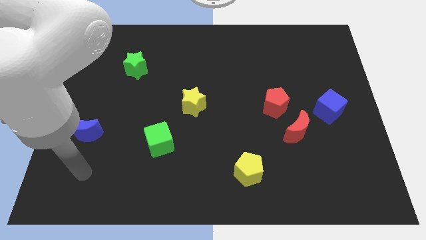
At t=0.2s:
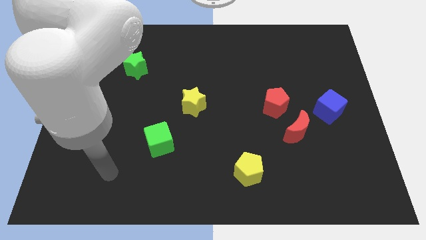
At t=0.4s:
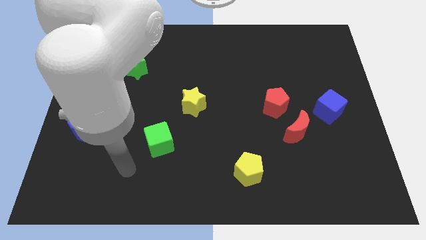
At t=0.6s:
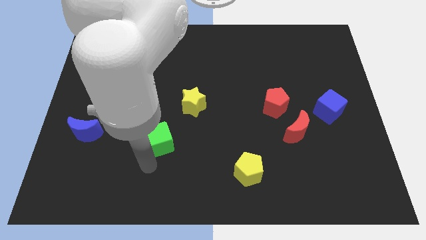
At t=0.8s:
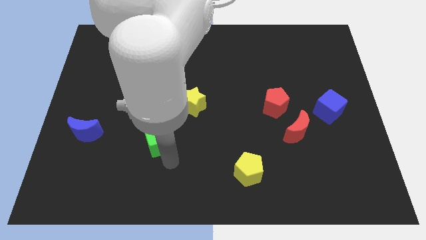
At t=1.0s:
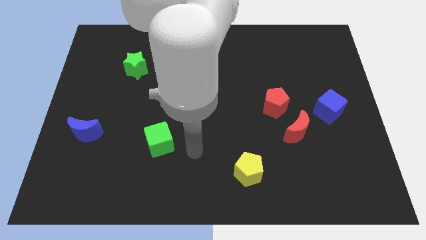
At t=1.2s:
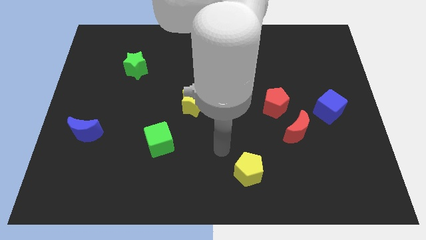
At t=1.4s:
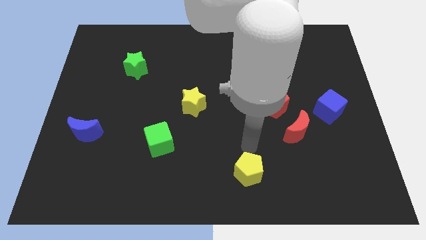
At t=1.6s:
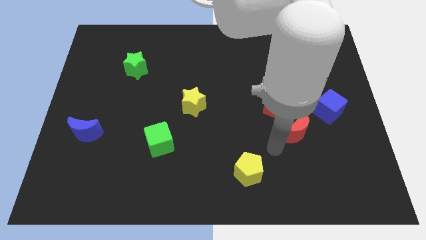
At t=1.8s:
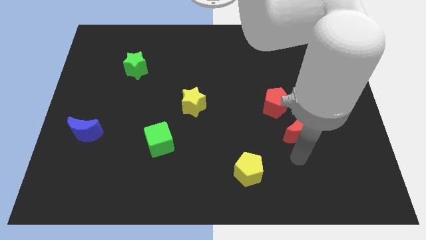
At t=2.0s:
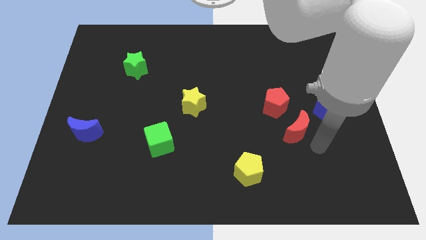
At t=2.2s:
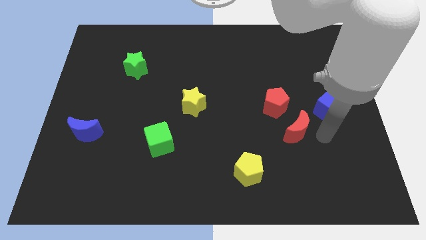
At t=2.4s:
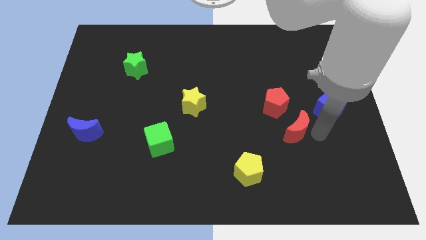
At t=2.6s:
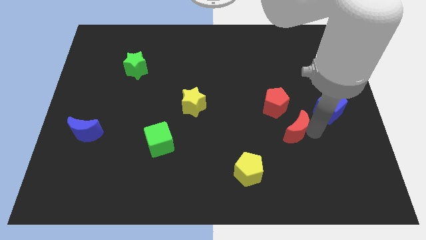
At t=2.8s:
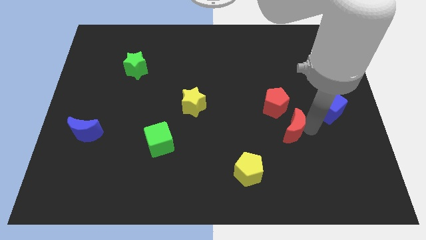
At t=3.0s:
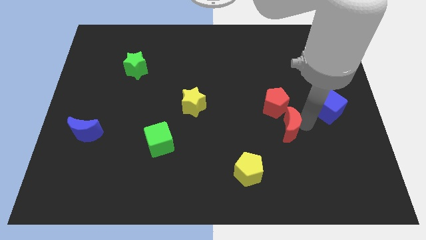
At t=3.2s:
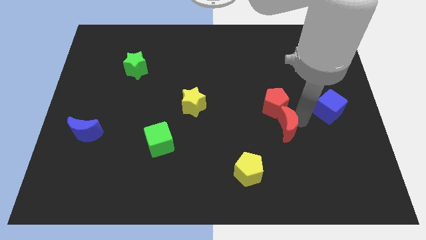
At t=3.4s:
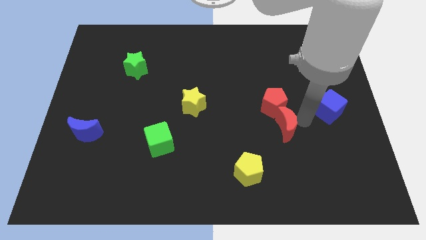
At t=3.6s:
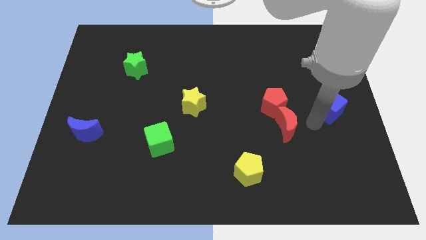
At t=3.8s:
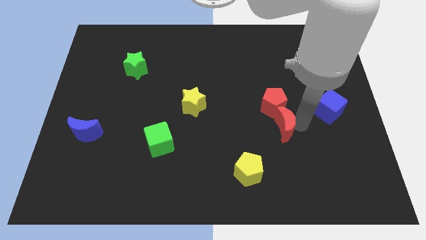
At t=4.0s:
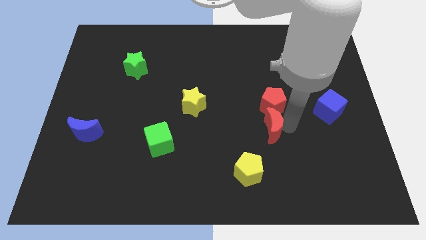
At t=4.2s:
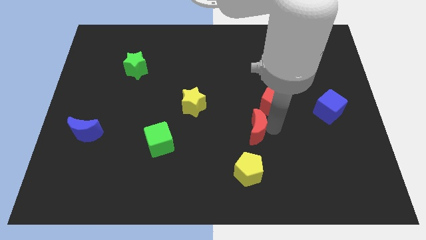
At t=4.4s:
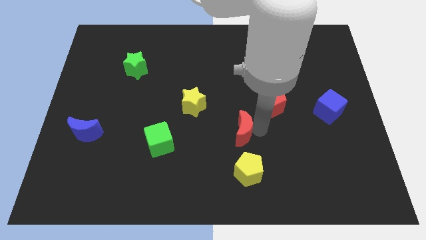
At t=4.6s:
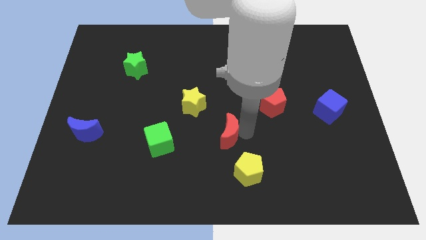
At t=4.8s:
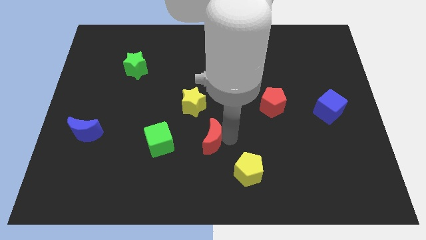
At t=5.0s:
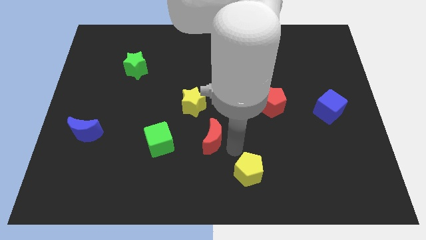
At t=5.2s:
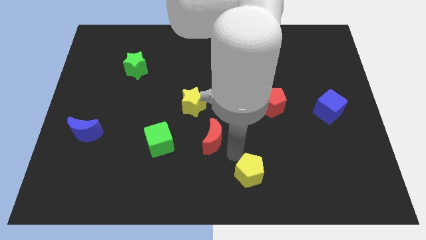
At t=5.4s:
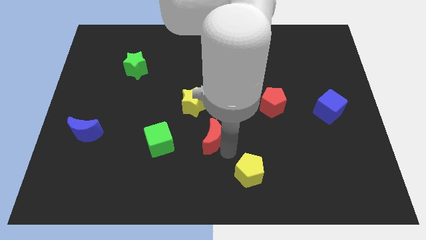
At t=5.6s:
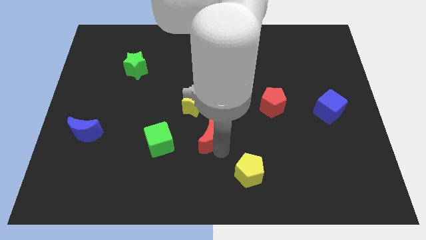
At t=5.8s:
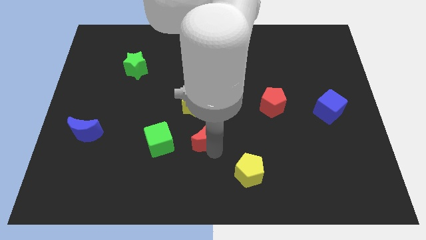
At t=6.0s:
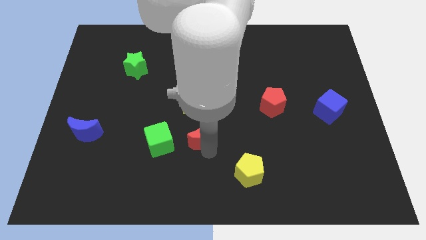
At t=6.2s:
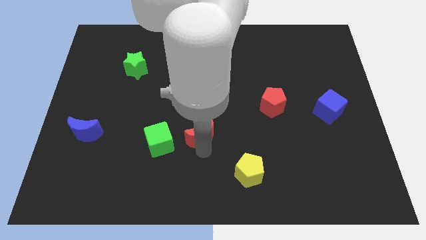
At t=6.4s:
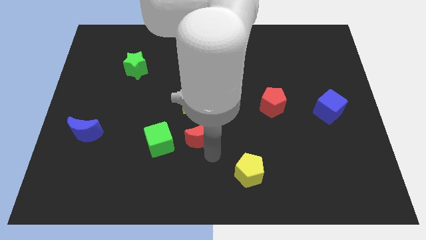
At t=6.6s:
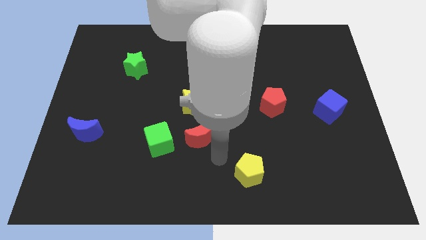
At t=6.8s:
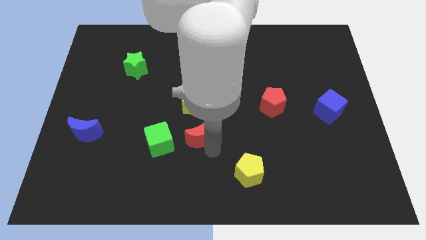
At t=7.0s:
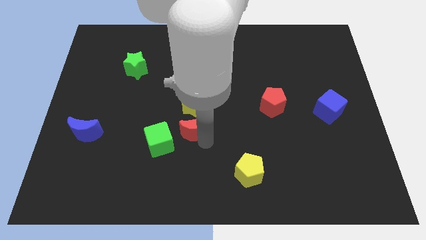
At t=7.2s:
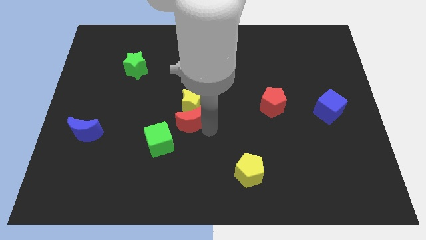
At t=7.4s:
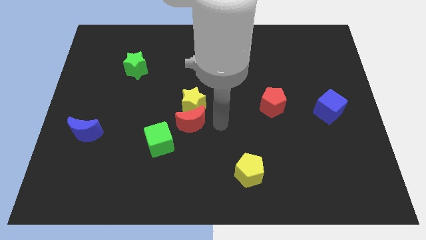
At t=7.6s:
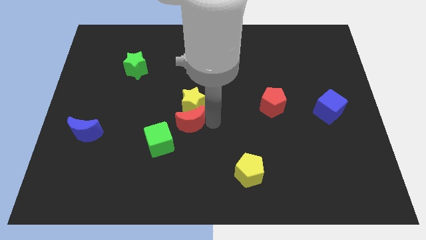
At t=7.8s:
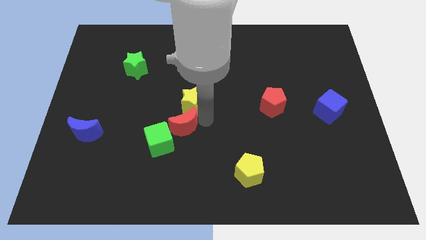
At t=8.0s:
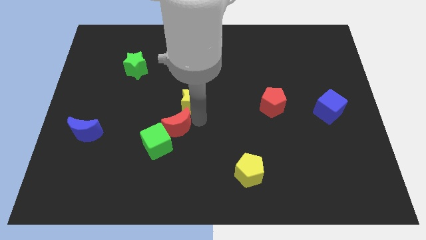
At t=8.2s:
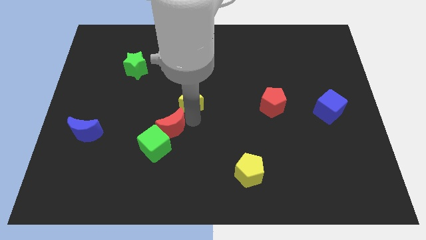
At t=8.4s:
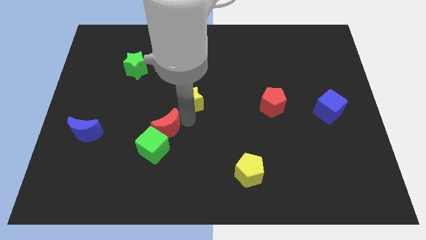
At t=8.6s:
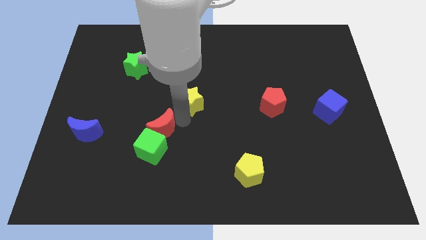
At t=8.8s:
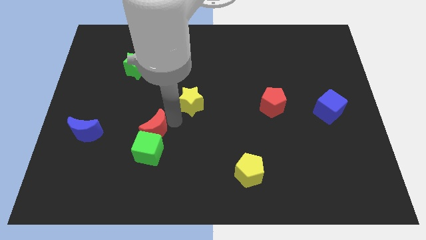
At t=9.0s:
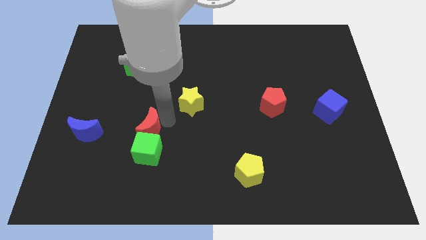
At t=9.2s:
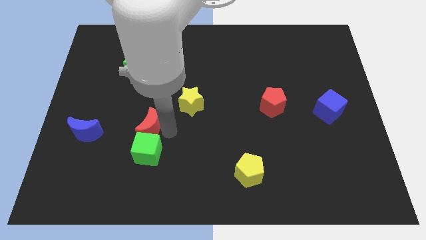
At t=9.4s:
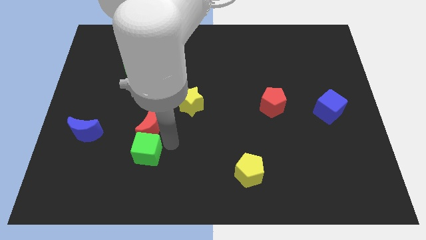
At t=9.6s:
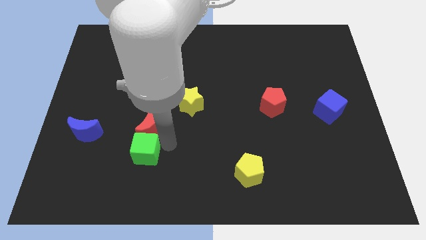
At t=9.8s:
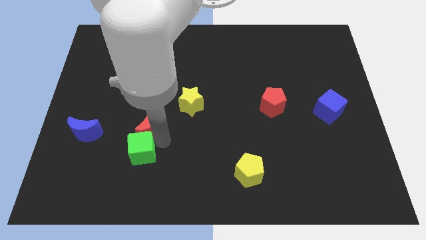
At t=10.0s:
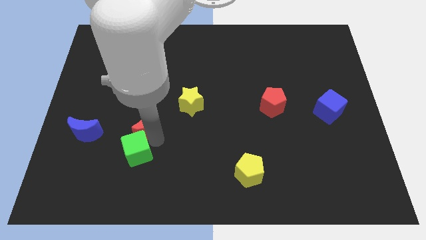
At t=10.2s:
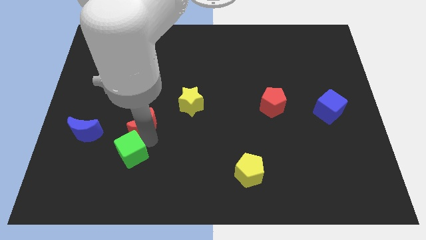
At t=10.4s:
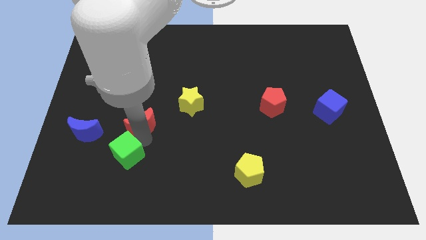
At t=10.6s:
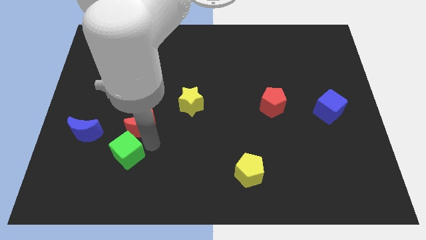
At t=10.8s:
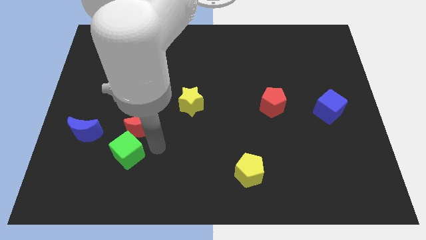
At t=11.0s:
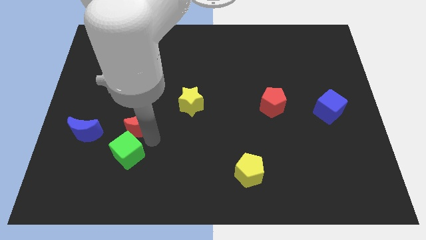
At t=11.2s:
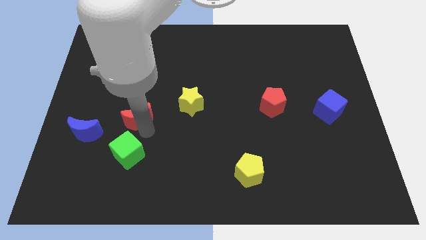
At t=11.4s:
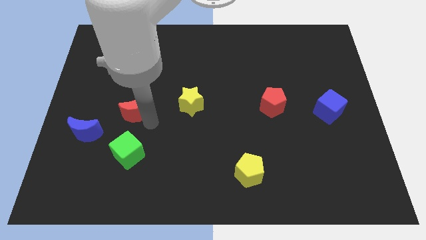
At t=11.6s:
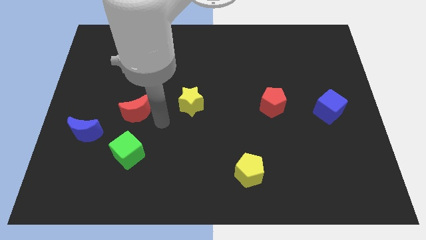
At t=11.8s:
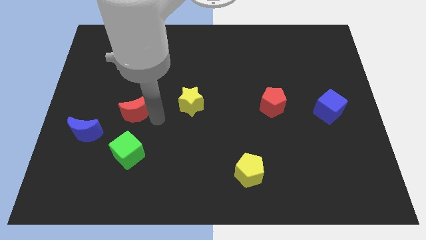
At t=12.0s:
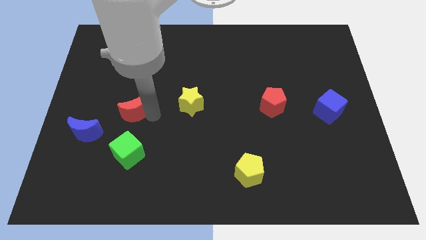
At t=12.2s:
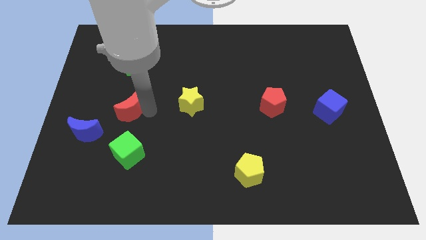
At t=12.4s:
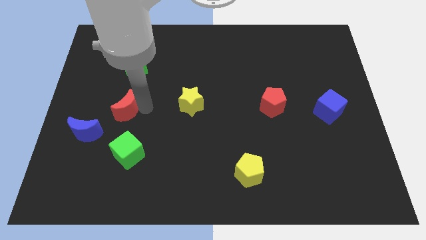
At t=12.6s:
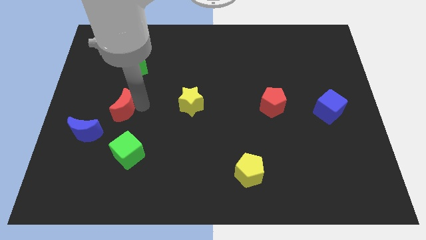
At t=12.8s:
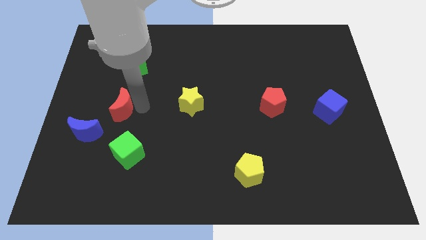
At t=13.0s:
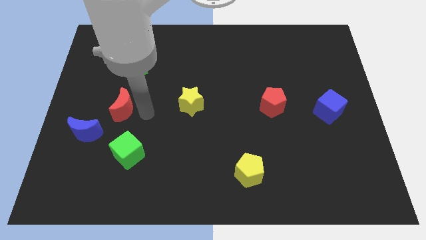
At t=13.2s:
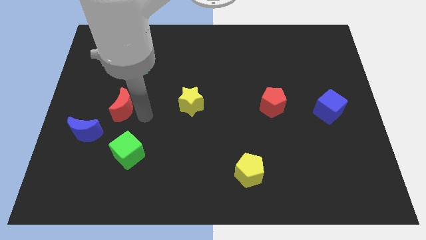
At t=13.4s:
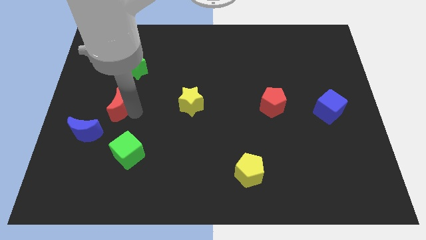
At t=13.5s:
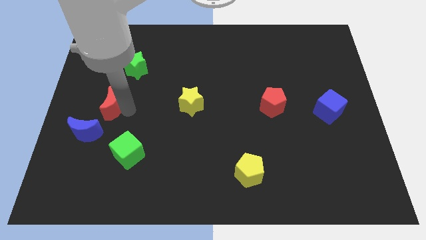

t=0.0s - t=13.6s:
move the red moon to the top of the blue moon
